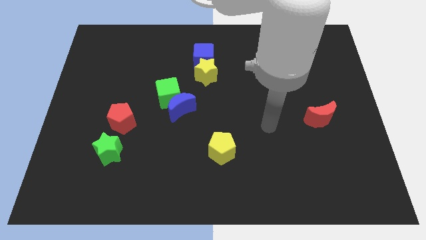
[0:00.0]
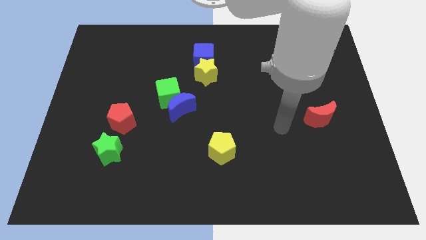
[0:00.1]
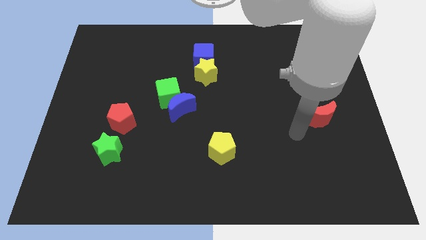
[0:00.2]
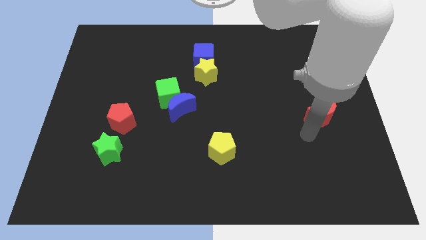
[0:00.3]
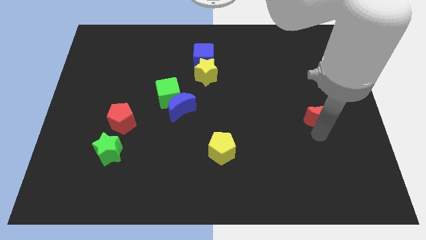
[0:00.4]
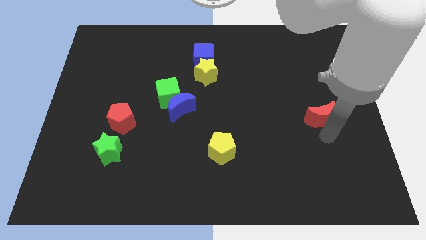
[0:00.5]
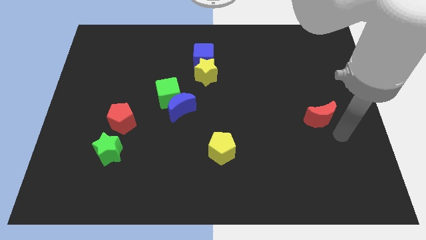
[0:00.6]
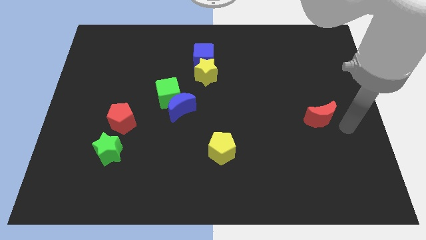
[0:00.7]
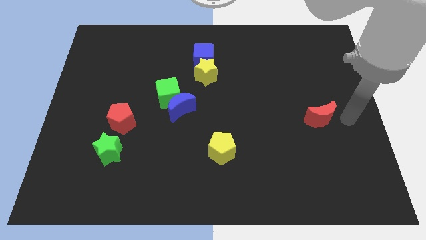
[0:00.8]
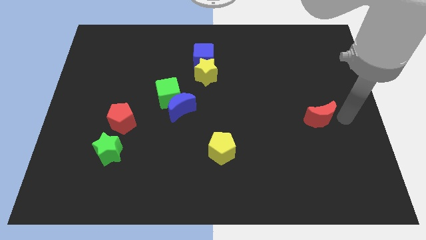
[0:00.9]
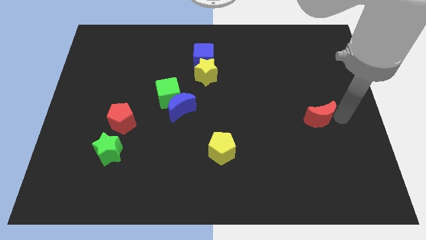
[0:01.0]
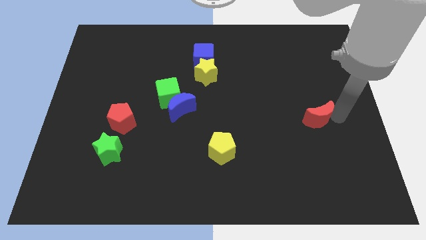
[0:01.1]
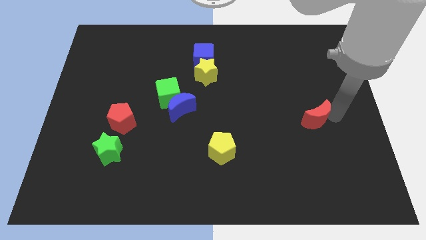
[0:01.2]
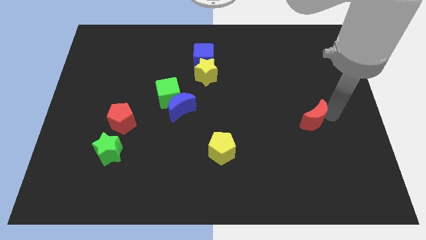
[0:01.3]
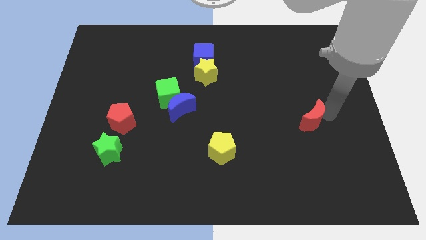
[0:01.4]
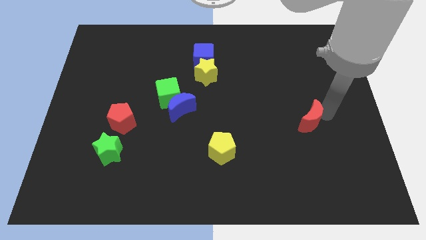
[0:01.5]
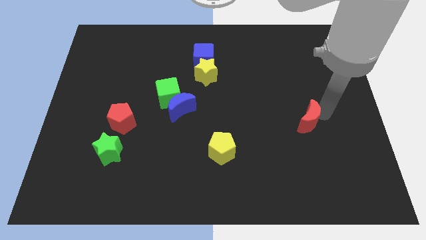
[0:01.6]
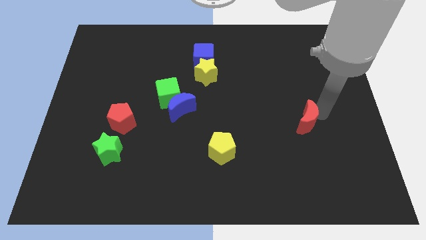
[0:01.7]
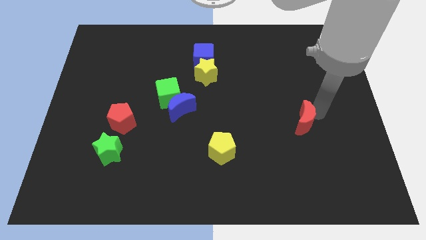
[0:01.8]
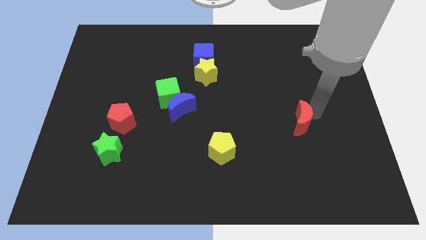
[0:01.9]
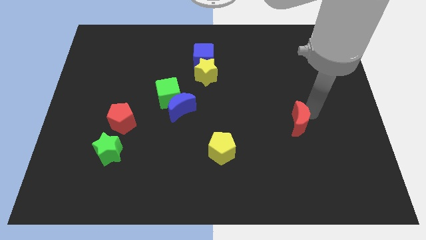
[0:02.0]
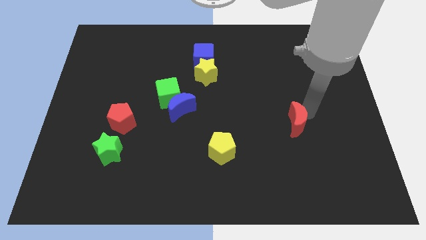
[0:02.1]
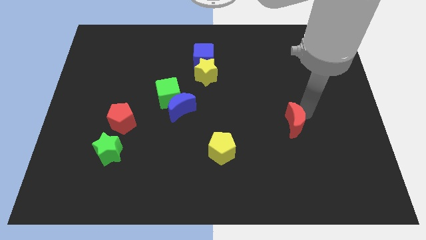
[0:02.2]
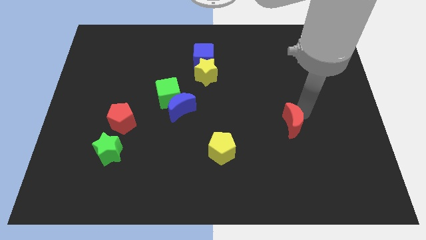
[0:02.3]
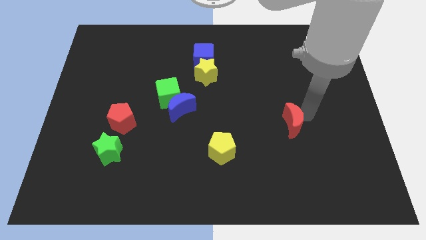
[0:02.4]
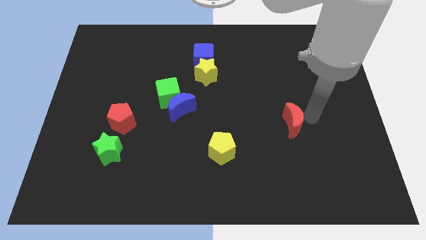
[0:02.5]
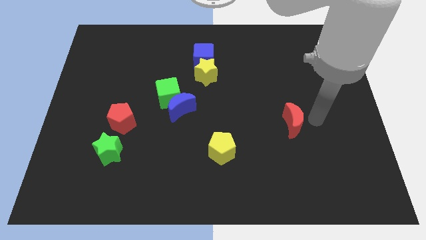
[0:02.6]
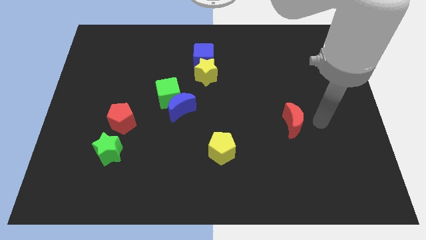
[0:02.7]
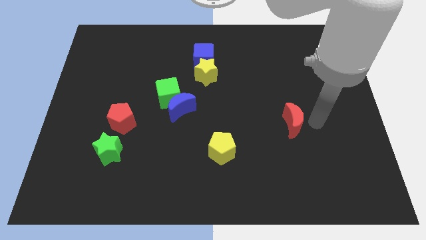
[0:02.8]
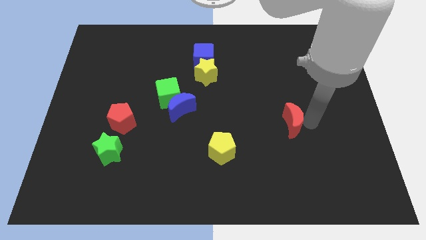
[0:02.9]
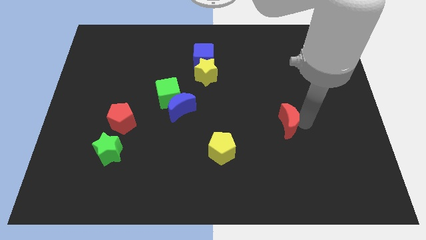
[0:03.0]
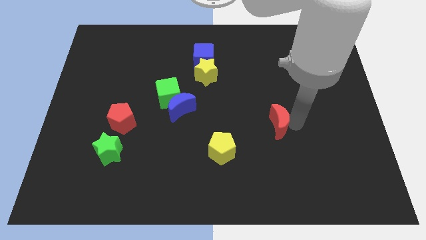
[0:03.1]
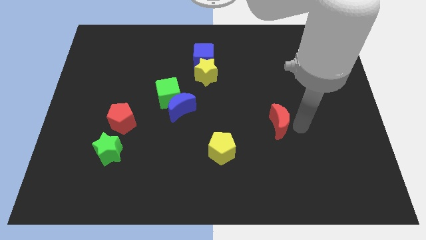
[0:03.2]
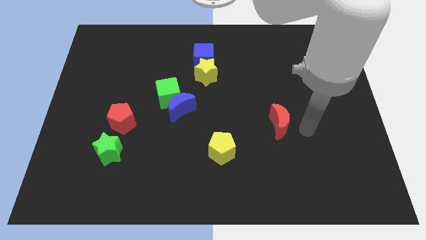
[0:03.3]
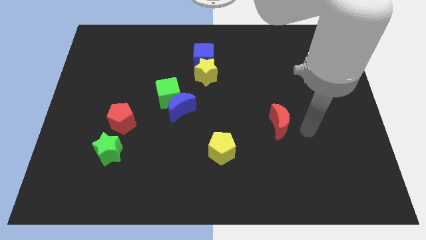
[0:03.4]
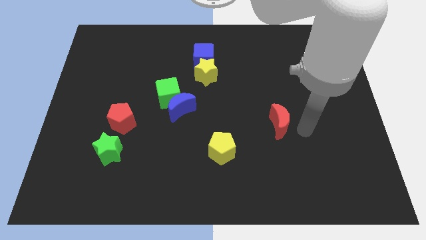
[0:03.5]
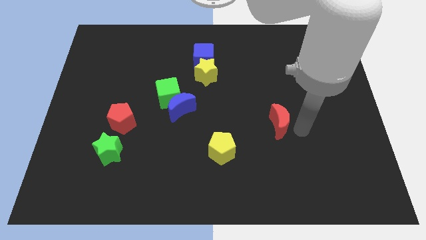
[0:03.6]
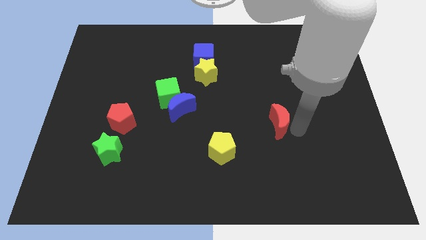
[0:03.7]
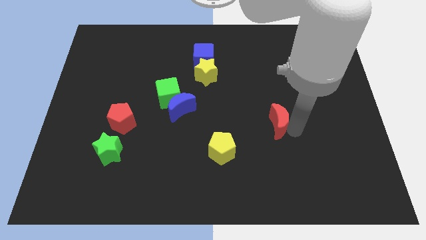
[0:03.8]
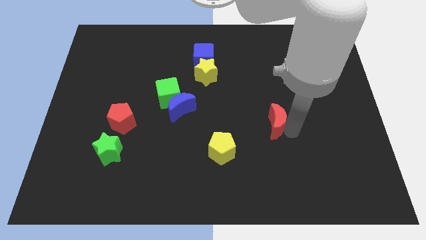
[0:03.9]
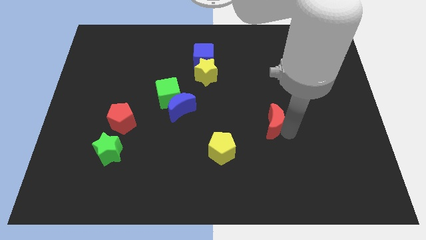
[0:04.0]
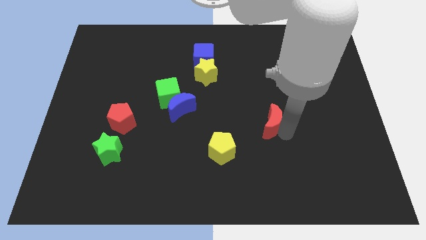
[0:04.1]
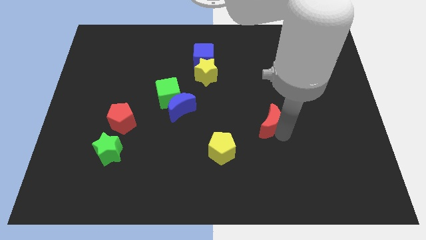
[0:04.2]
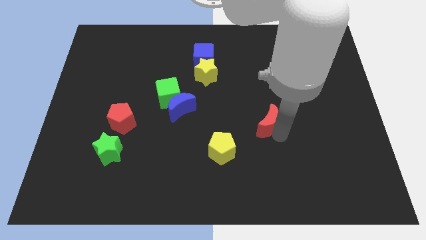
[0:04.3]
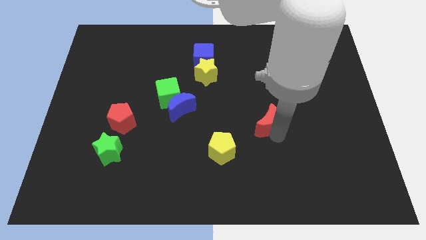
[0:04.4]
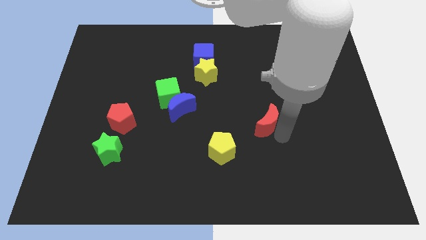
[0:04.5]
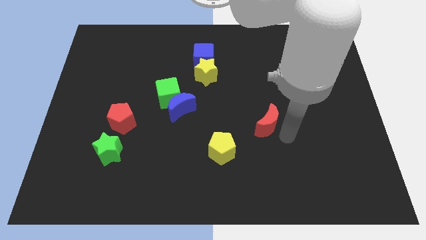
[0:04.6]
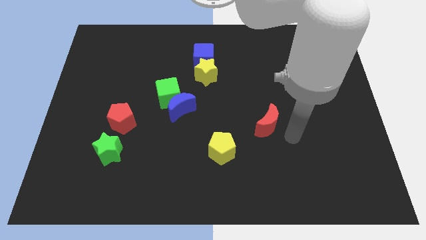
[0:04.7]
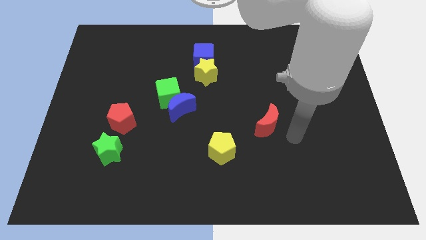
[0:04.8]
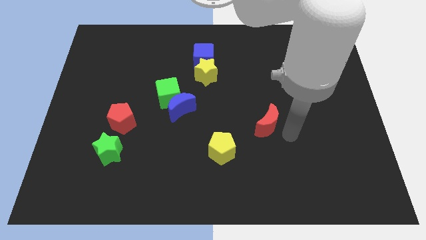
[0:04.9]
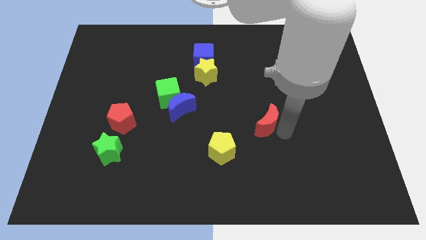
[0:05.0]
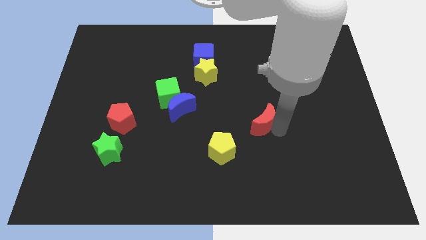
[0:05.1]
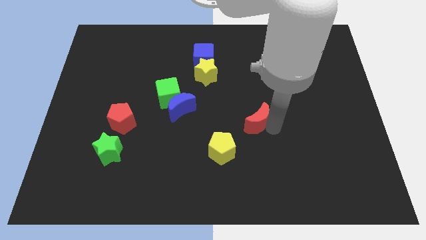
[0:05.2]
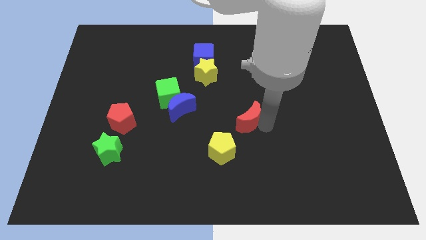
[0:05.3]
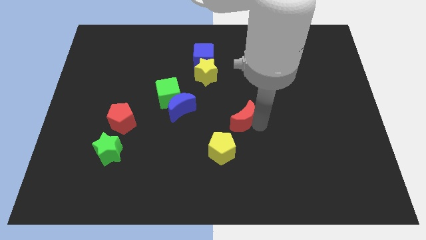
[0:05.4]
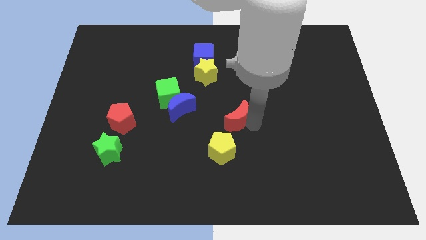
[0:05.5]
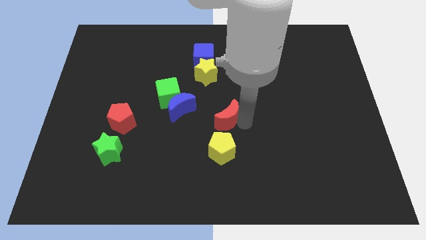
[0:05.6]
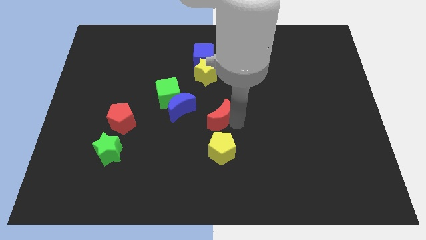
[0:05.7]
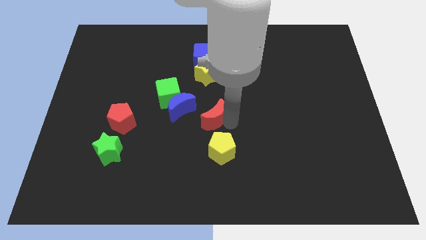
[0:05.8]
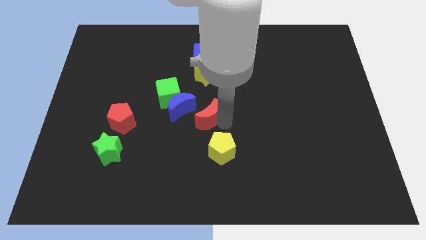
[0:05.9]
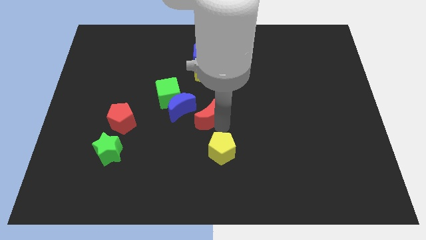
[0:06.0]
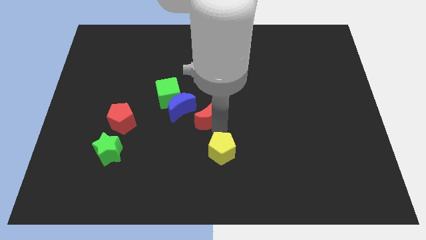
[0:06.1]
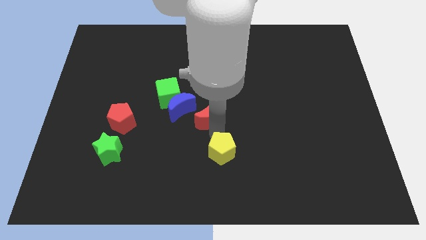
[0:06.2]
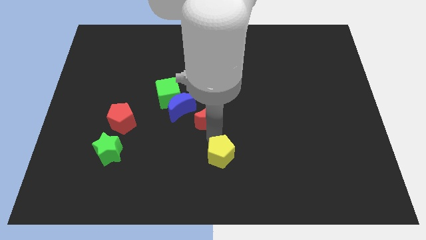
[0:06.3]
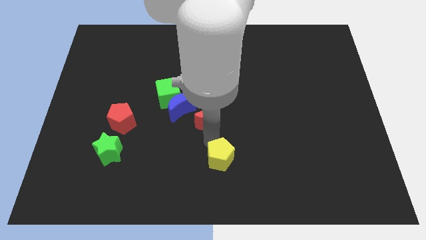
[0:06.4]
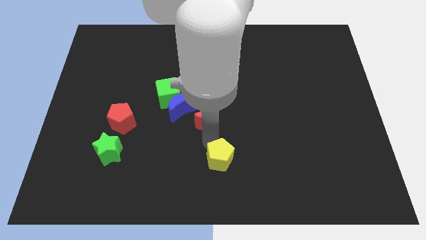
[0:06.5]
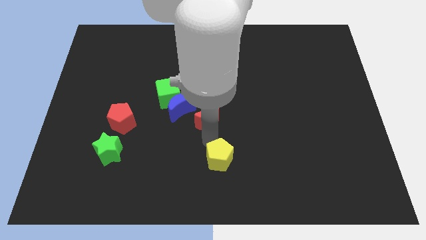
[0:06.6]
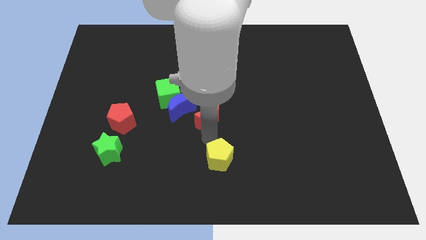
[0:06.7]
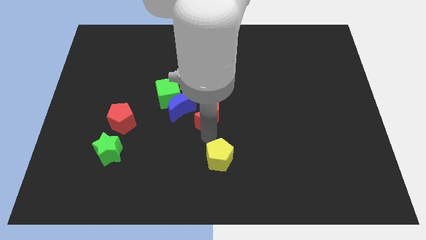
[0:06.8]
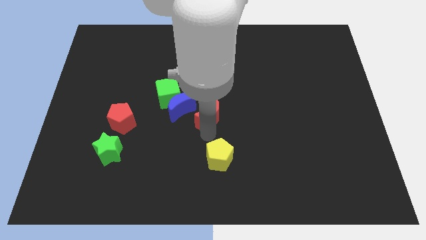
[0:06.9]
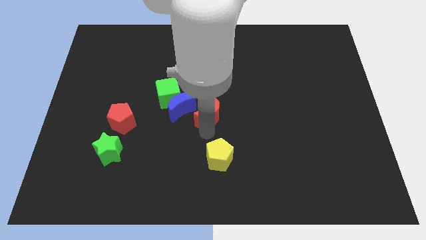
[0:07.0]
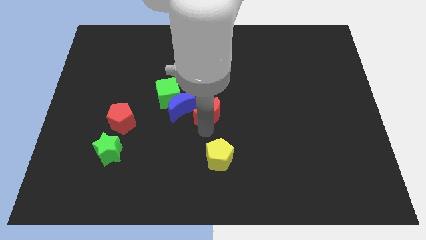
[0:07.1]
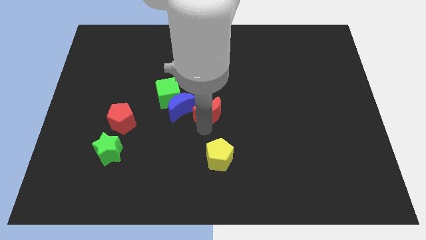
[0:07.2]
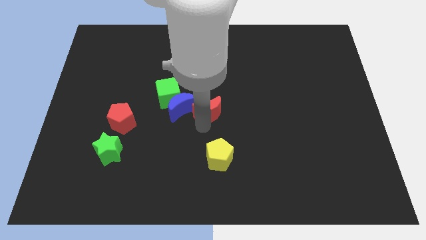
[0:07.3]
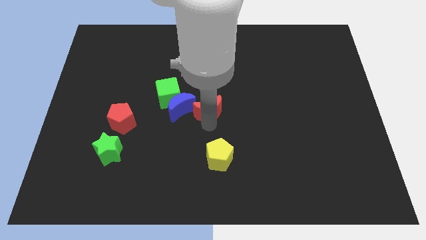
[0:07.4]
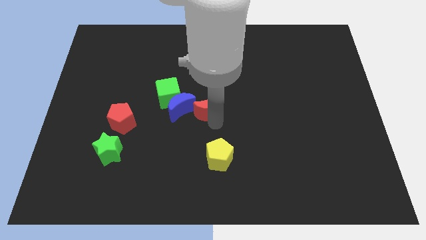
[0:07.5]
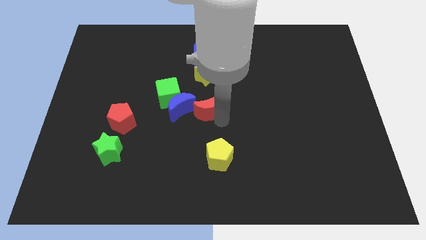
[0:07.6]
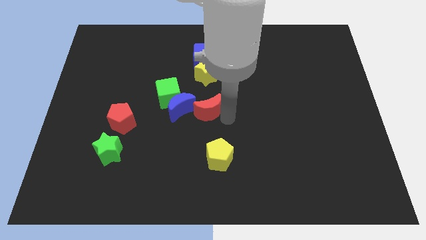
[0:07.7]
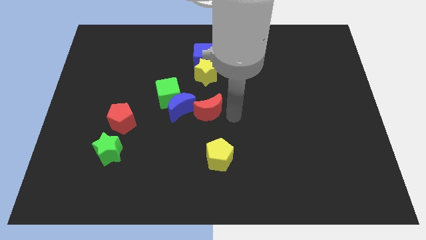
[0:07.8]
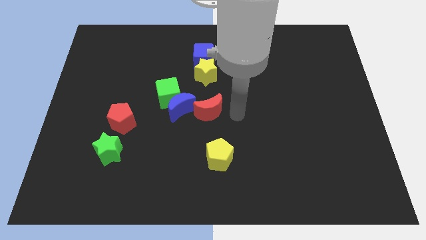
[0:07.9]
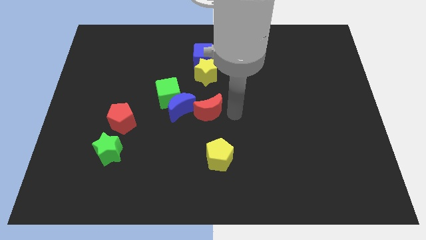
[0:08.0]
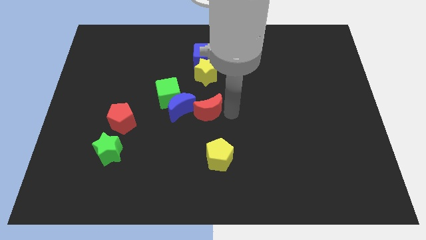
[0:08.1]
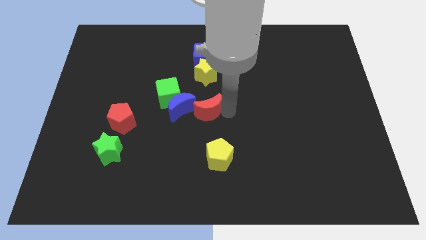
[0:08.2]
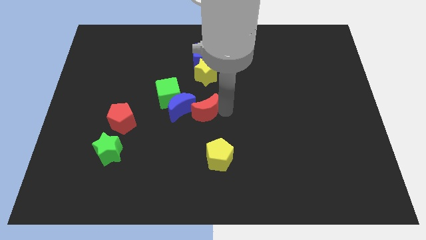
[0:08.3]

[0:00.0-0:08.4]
slide the red moon to the blue moon
